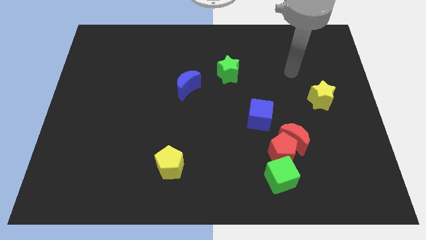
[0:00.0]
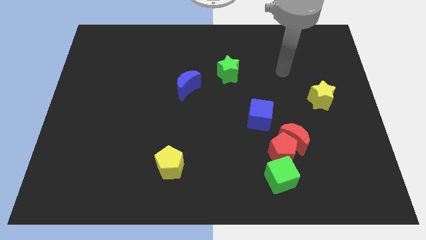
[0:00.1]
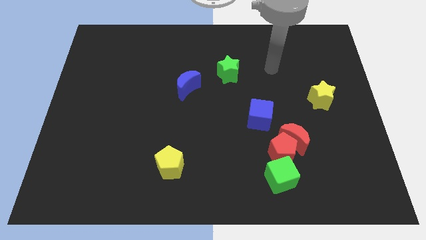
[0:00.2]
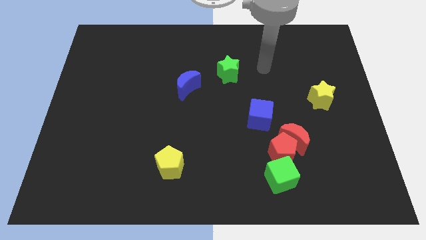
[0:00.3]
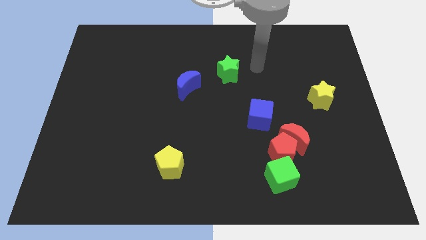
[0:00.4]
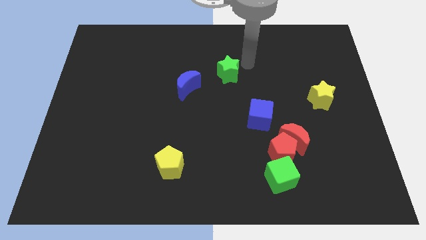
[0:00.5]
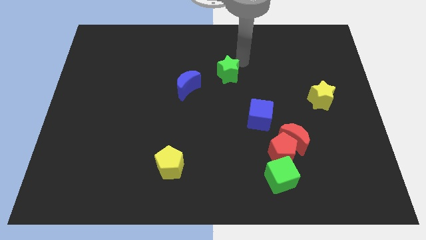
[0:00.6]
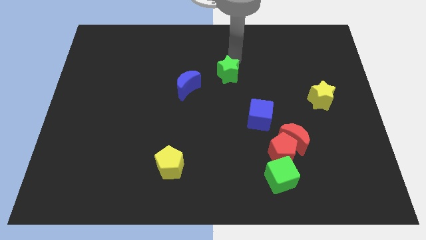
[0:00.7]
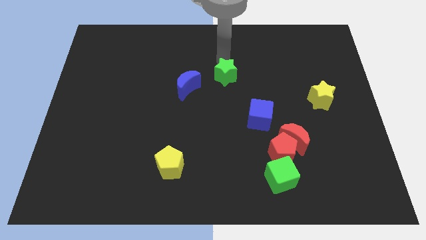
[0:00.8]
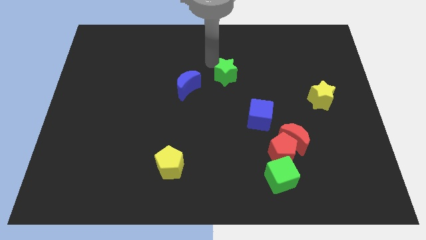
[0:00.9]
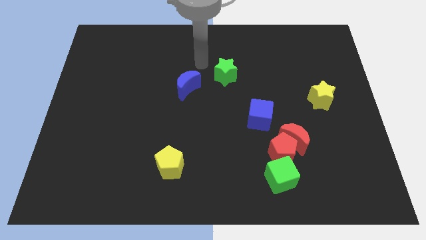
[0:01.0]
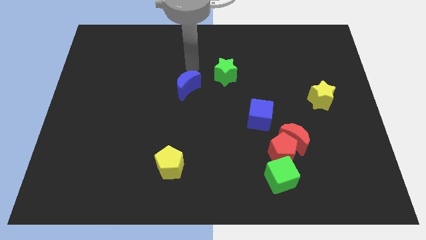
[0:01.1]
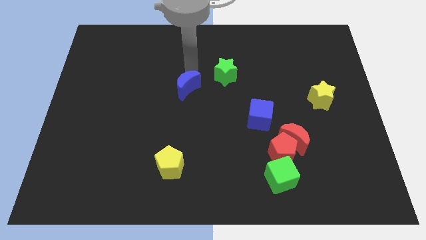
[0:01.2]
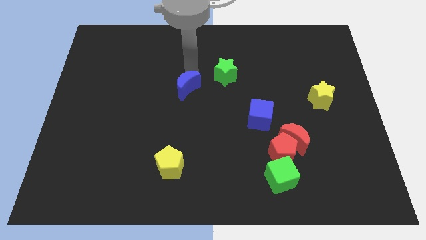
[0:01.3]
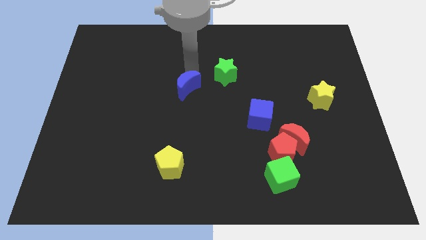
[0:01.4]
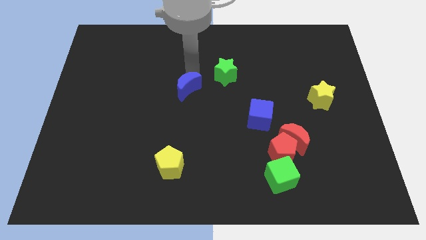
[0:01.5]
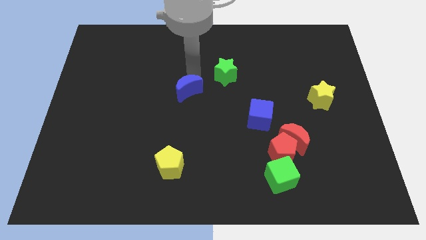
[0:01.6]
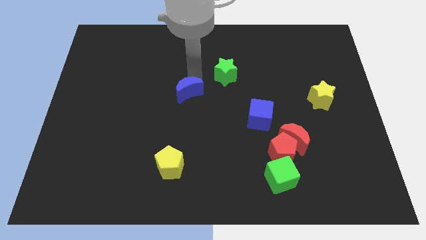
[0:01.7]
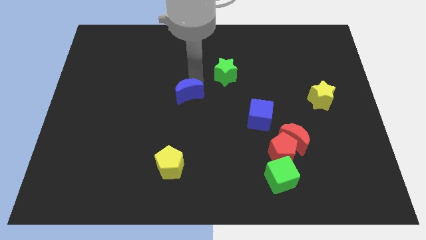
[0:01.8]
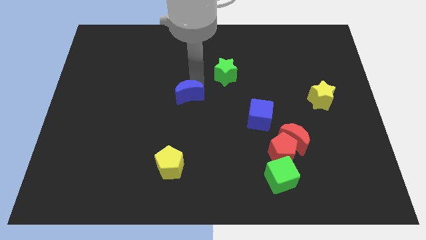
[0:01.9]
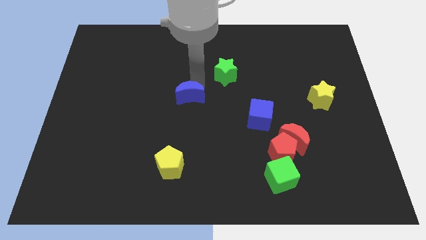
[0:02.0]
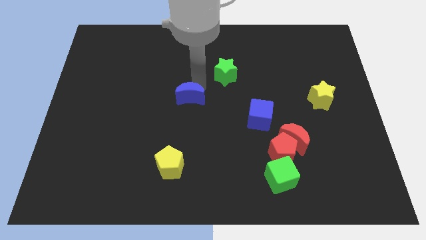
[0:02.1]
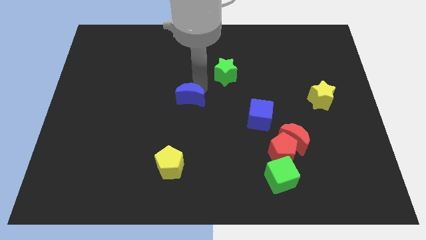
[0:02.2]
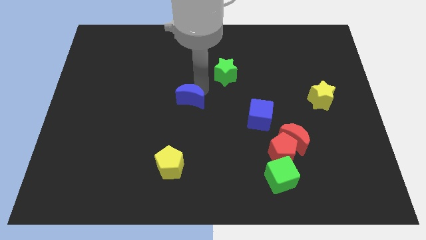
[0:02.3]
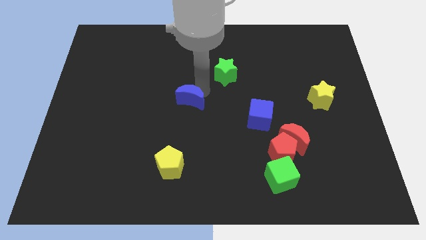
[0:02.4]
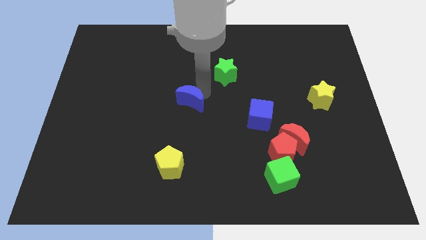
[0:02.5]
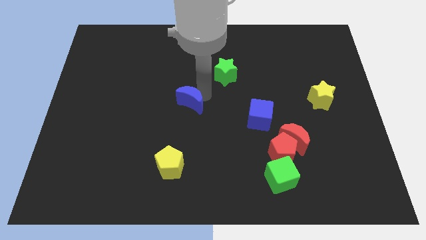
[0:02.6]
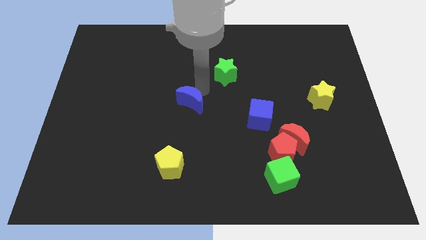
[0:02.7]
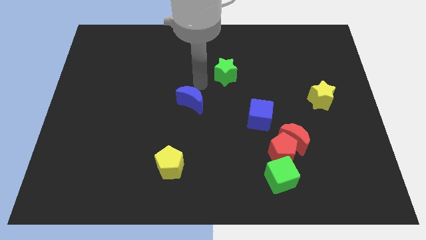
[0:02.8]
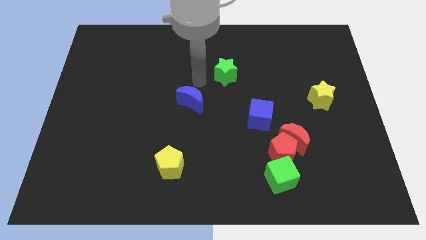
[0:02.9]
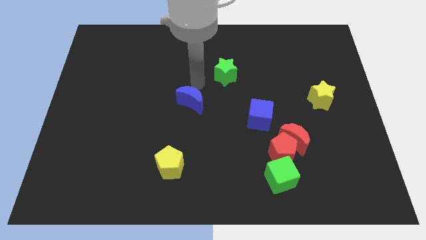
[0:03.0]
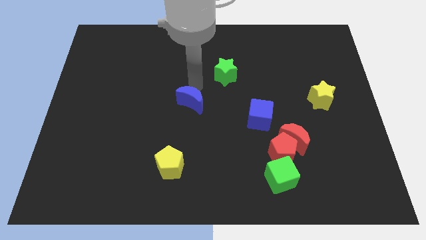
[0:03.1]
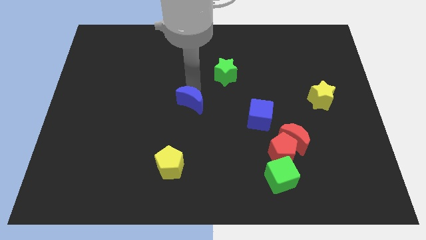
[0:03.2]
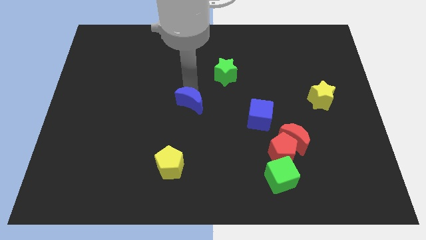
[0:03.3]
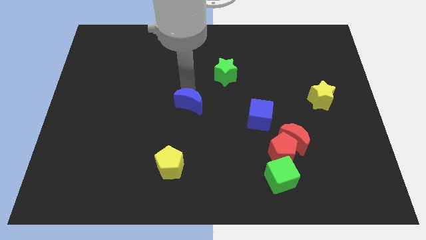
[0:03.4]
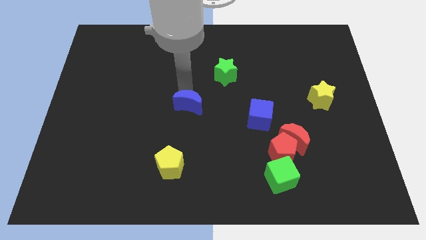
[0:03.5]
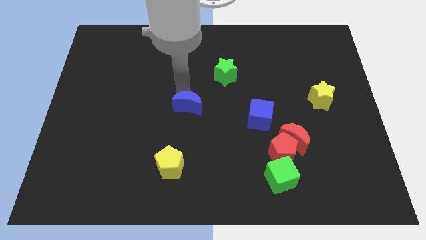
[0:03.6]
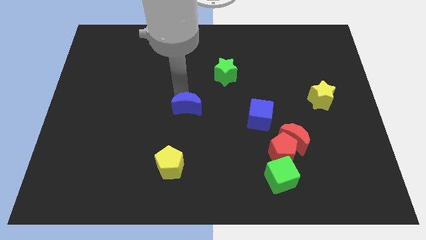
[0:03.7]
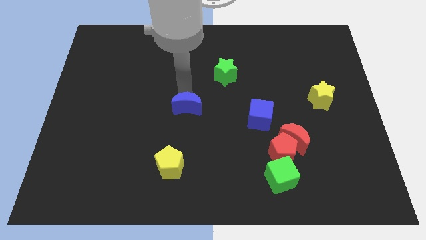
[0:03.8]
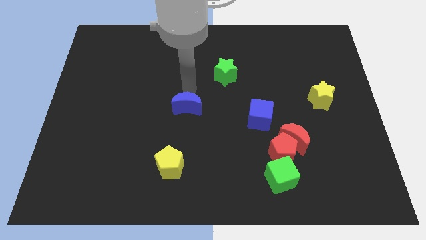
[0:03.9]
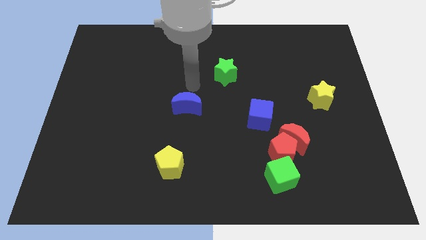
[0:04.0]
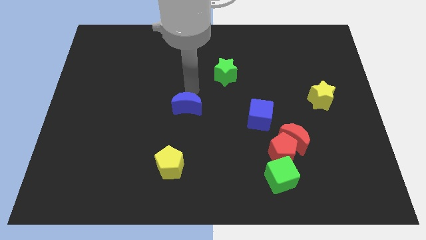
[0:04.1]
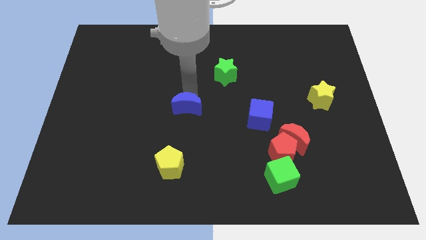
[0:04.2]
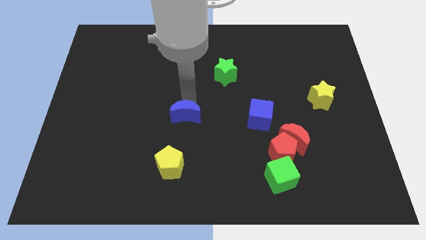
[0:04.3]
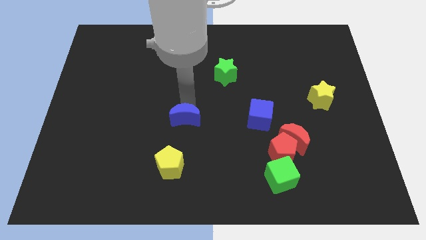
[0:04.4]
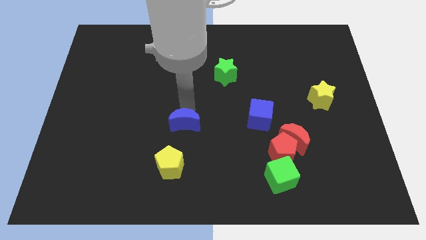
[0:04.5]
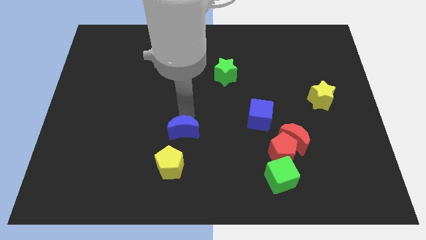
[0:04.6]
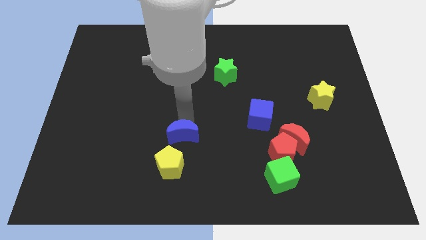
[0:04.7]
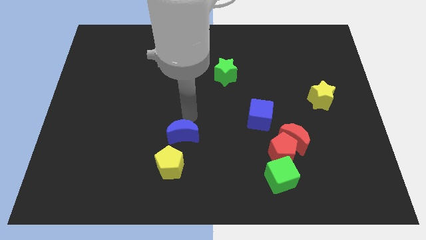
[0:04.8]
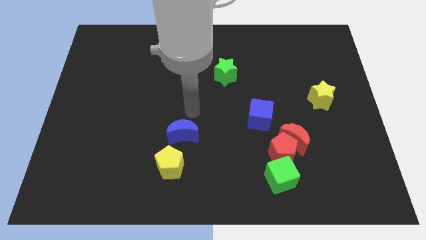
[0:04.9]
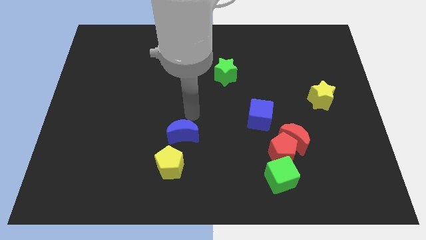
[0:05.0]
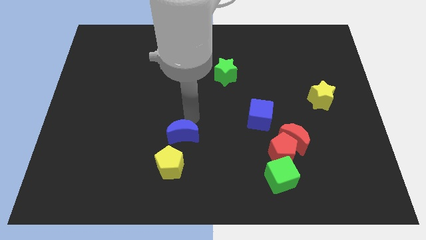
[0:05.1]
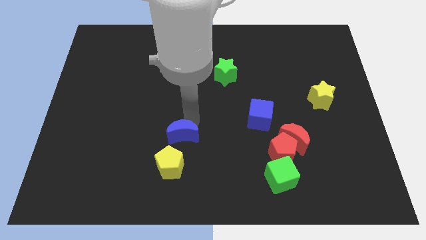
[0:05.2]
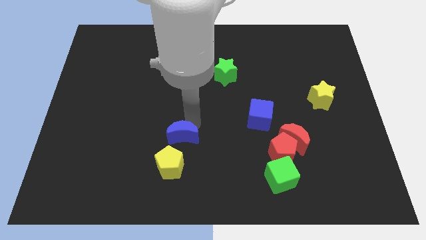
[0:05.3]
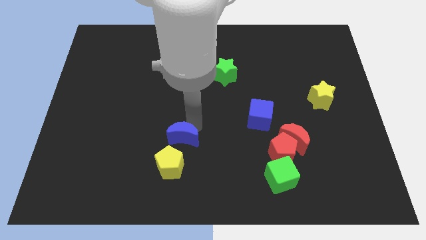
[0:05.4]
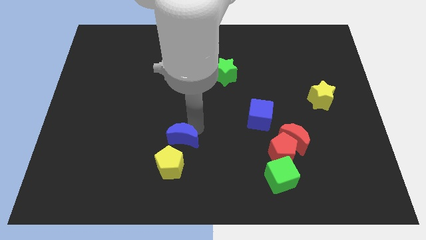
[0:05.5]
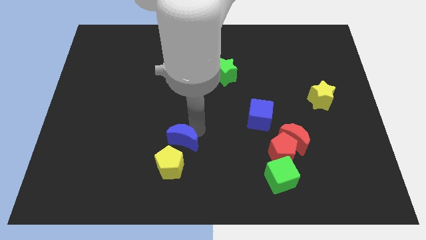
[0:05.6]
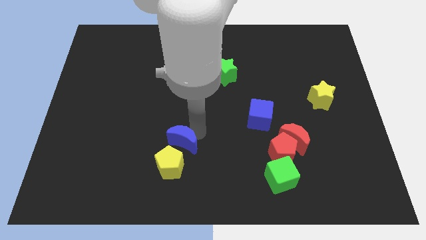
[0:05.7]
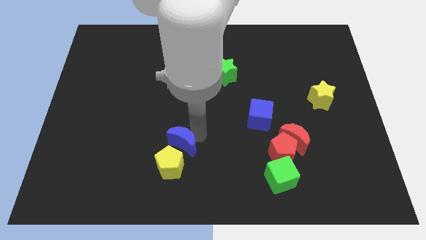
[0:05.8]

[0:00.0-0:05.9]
move the blue moon to the yellow pentagon

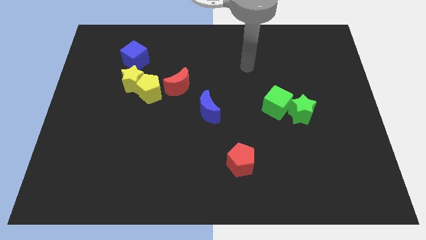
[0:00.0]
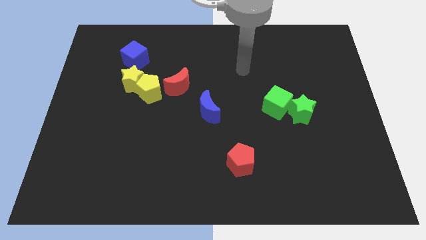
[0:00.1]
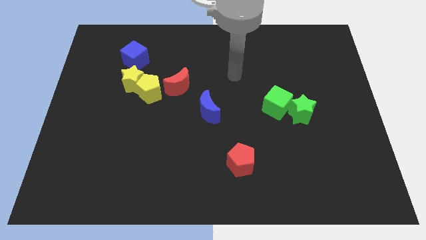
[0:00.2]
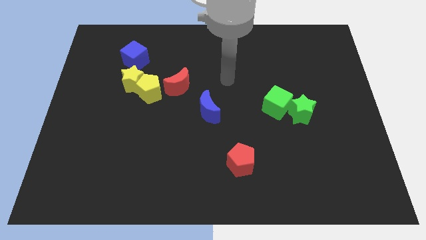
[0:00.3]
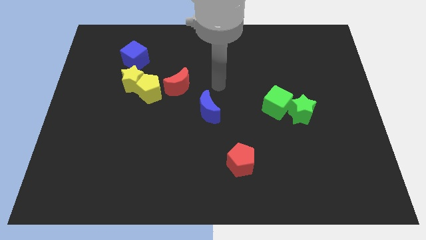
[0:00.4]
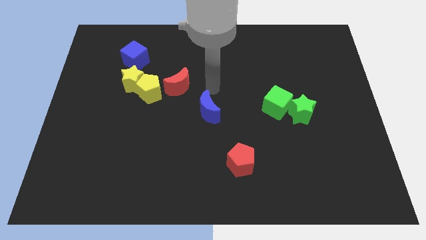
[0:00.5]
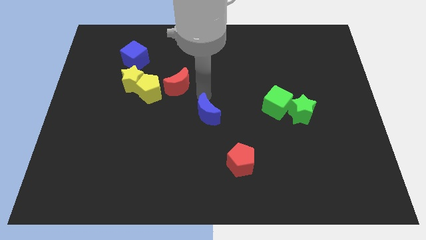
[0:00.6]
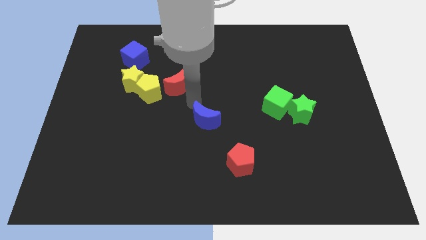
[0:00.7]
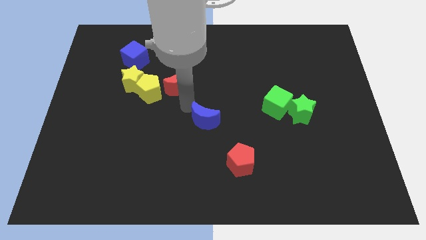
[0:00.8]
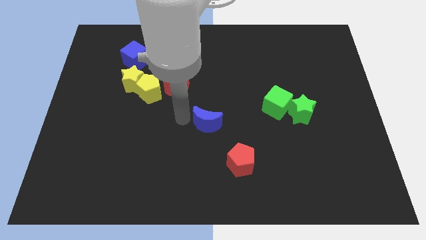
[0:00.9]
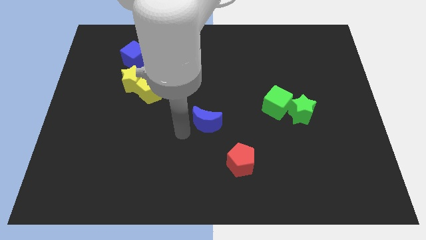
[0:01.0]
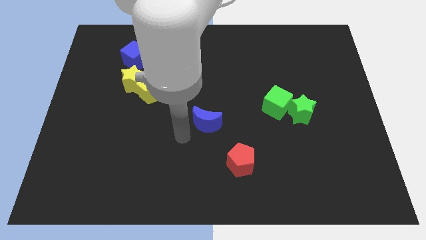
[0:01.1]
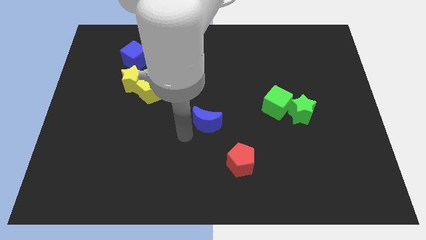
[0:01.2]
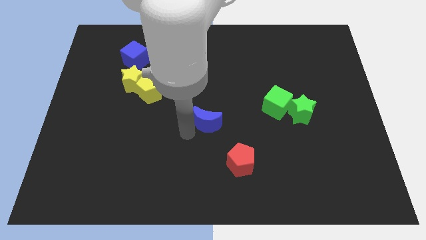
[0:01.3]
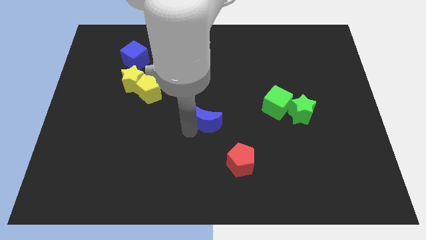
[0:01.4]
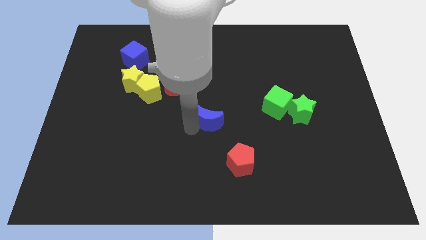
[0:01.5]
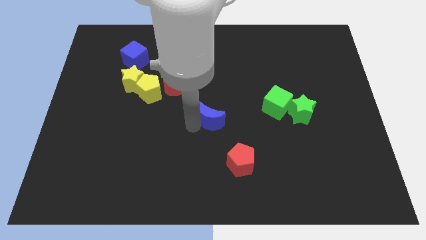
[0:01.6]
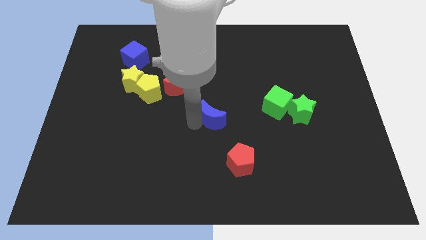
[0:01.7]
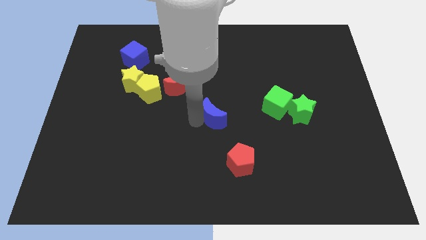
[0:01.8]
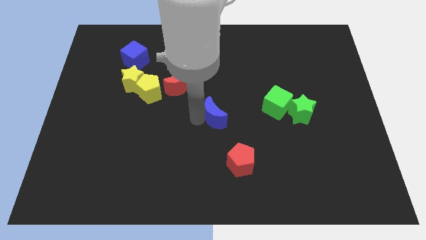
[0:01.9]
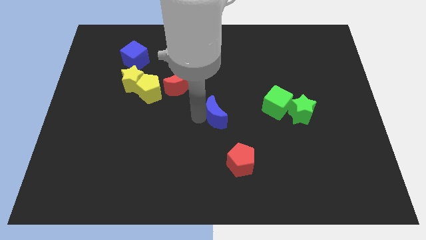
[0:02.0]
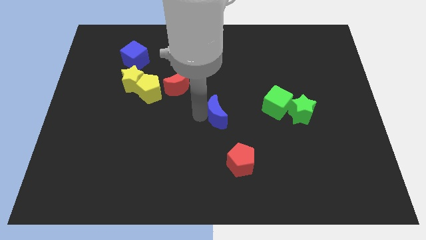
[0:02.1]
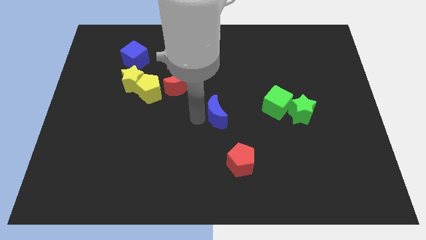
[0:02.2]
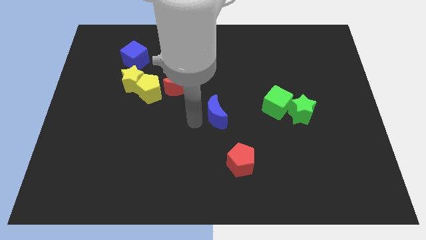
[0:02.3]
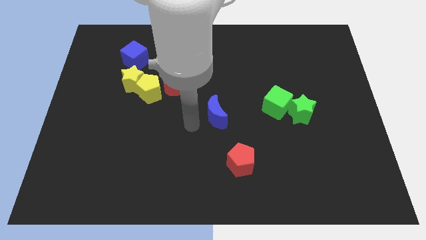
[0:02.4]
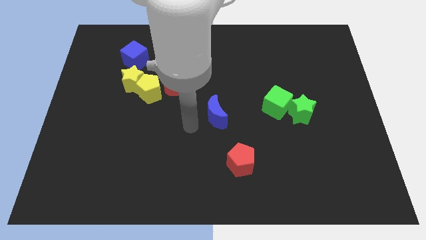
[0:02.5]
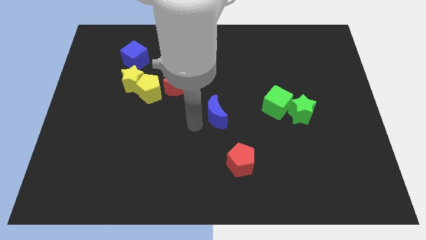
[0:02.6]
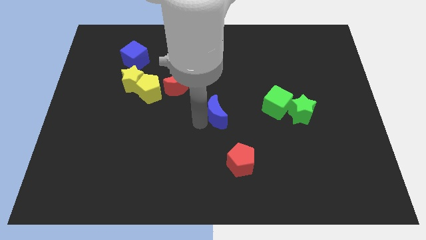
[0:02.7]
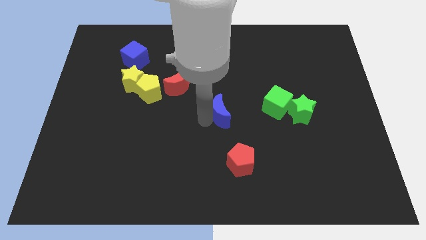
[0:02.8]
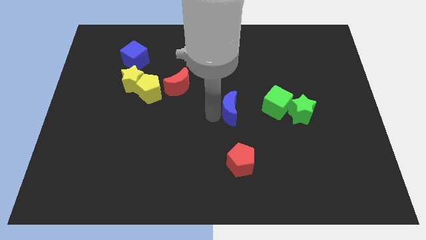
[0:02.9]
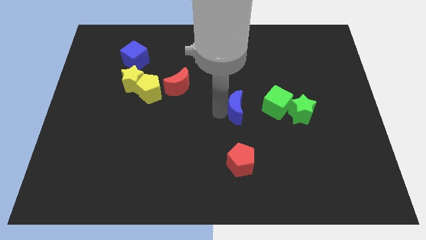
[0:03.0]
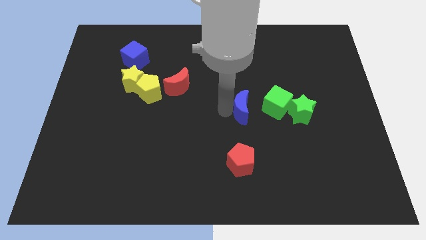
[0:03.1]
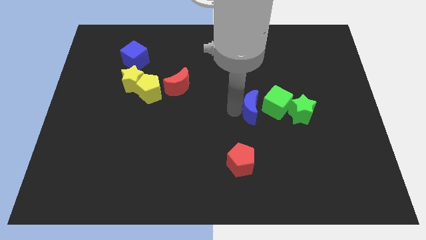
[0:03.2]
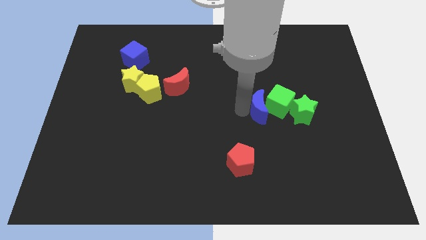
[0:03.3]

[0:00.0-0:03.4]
slide the blue moon to the green cube
